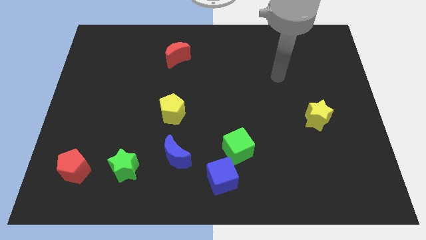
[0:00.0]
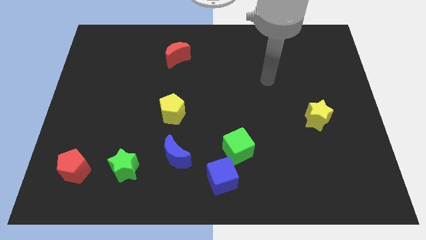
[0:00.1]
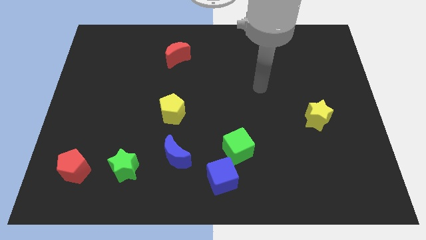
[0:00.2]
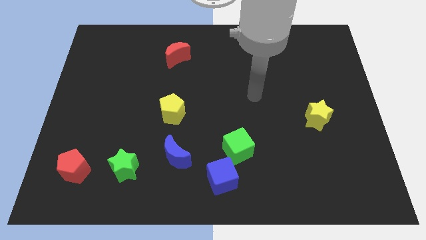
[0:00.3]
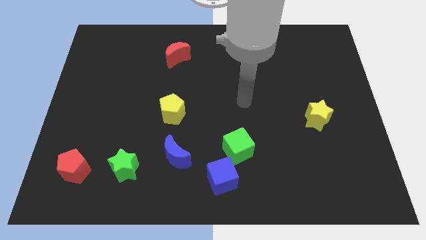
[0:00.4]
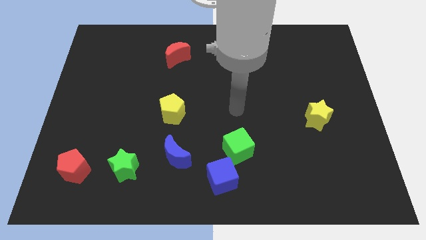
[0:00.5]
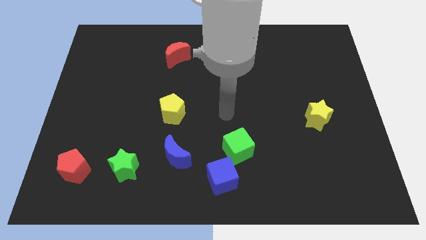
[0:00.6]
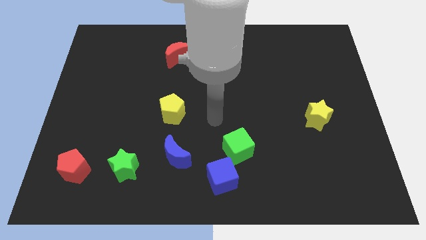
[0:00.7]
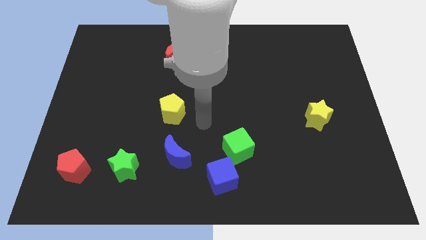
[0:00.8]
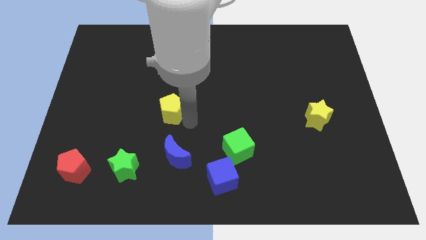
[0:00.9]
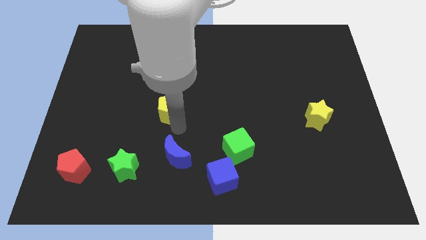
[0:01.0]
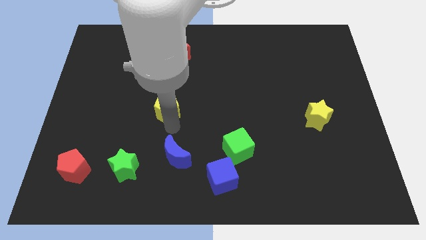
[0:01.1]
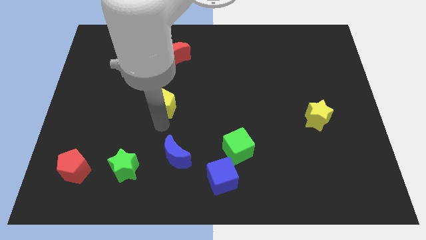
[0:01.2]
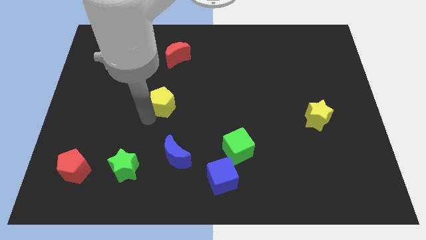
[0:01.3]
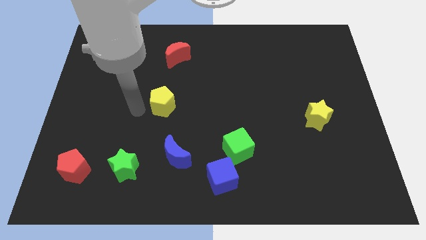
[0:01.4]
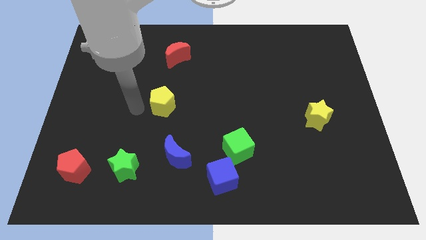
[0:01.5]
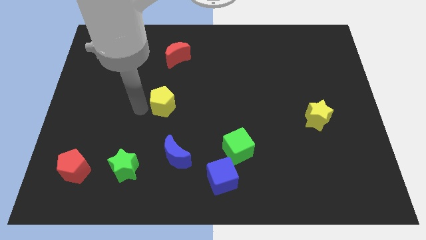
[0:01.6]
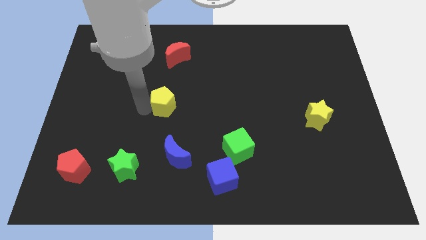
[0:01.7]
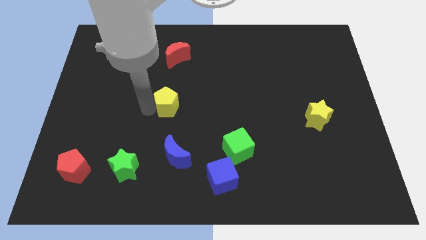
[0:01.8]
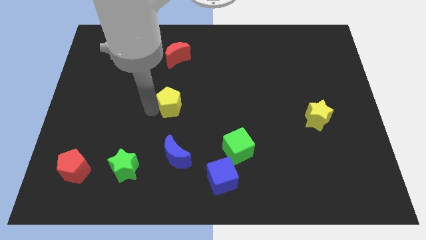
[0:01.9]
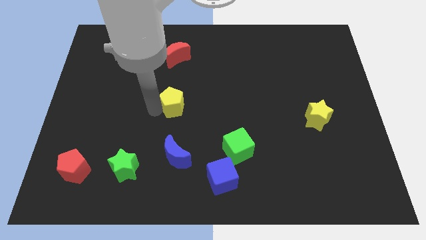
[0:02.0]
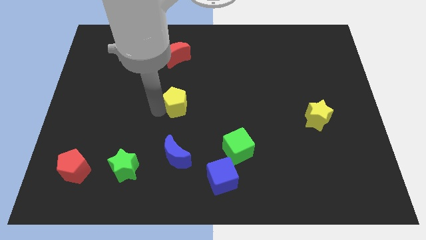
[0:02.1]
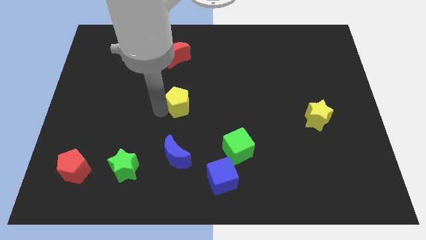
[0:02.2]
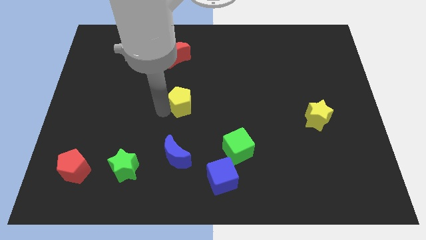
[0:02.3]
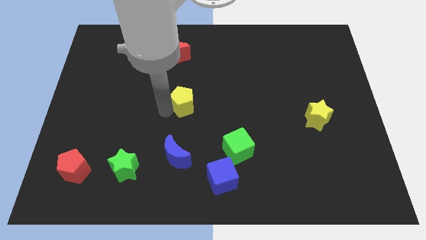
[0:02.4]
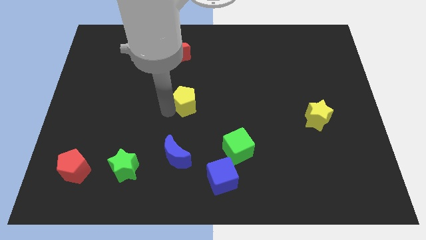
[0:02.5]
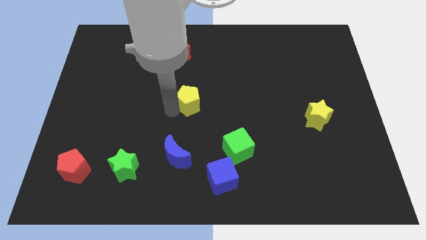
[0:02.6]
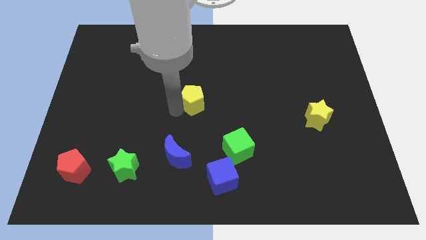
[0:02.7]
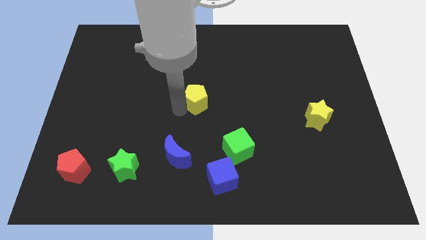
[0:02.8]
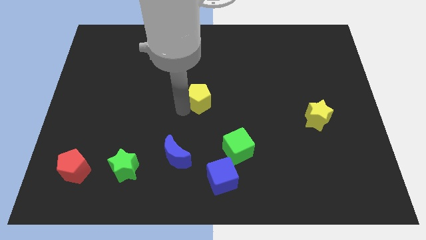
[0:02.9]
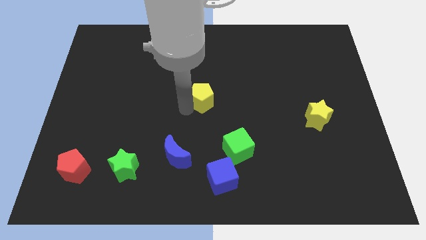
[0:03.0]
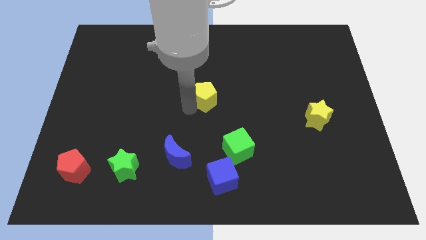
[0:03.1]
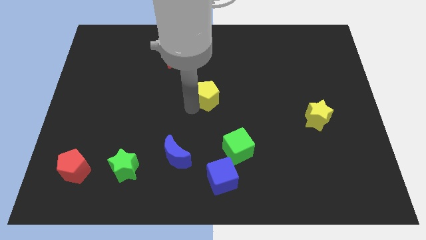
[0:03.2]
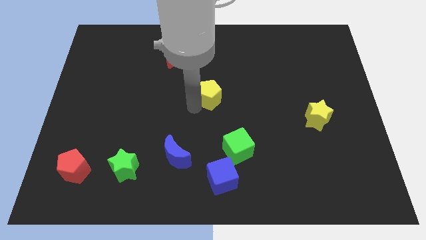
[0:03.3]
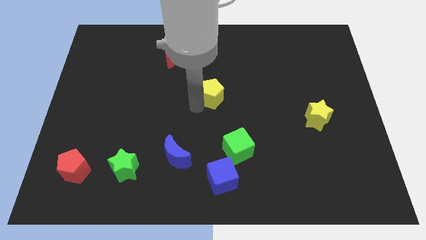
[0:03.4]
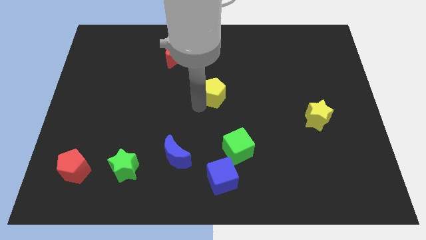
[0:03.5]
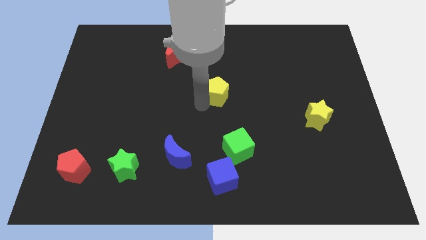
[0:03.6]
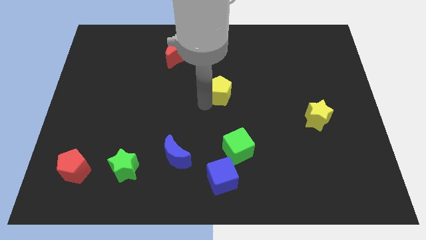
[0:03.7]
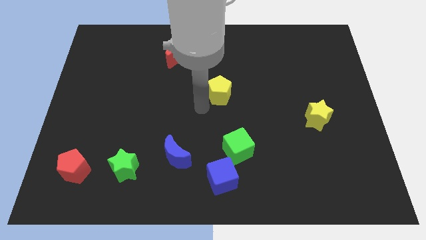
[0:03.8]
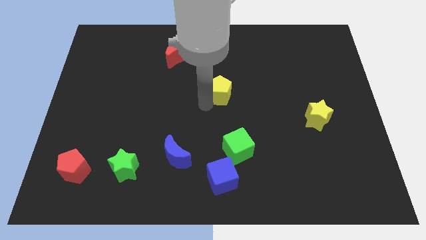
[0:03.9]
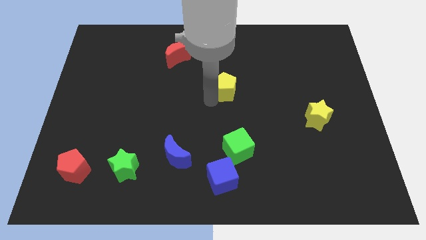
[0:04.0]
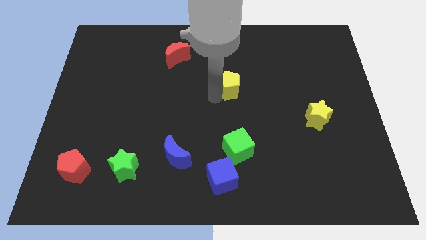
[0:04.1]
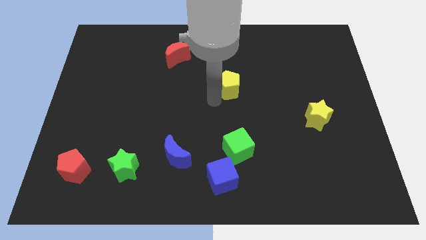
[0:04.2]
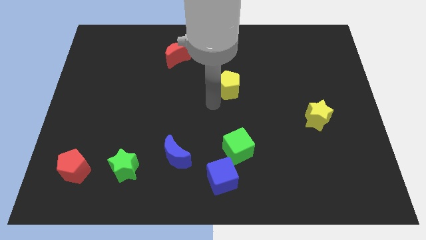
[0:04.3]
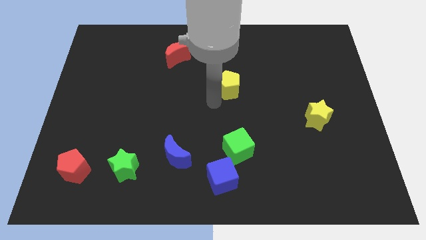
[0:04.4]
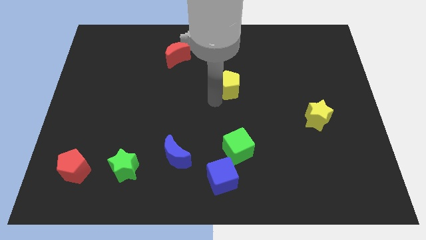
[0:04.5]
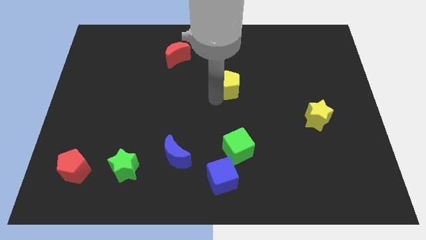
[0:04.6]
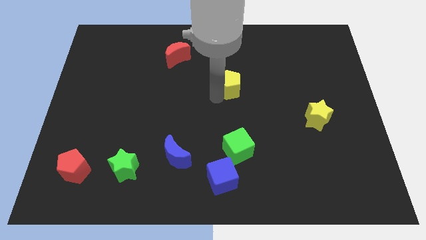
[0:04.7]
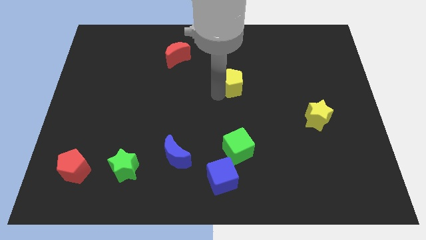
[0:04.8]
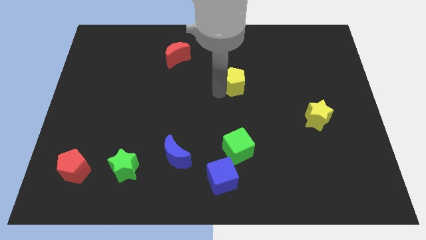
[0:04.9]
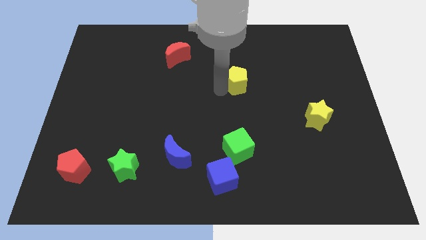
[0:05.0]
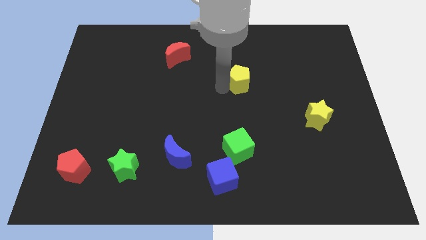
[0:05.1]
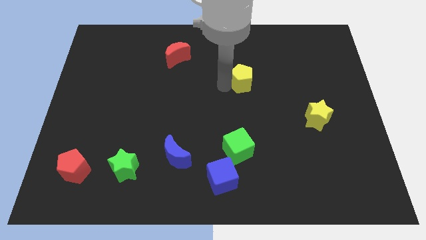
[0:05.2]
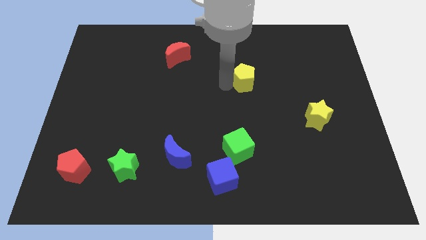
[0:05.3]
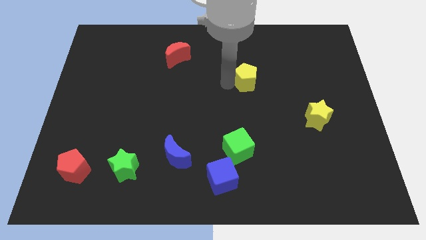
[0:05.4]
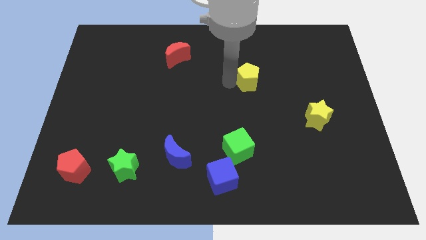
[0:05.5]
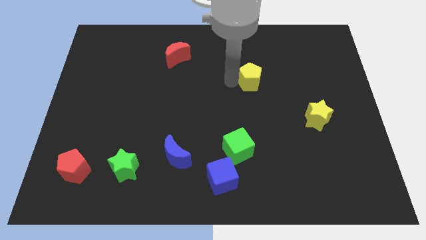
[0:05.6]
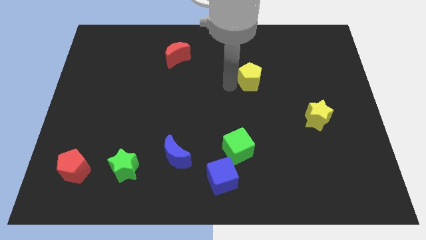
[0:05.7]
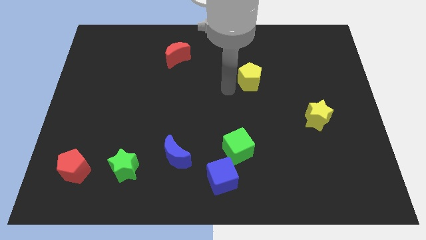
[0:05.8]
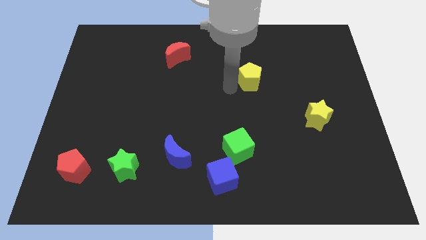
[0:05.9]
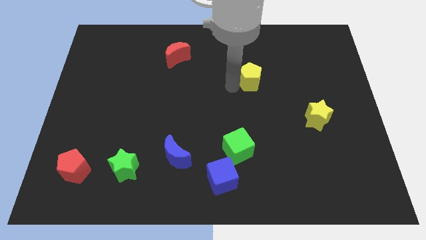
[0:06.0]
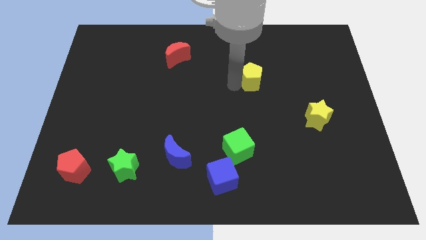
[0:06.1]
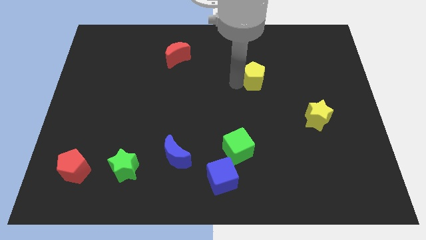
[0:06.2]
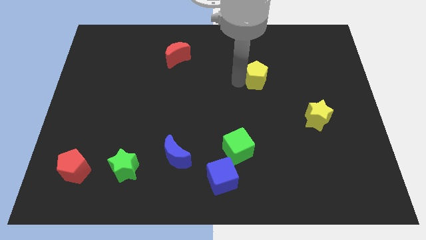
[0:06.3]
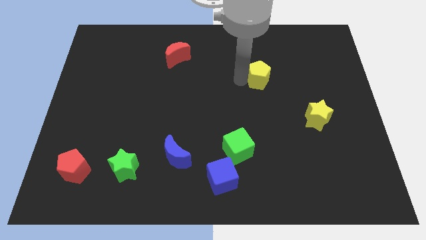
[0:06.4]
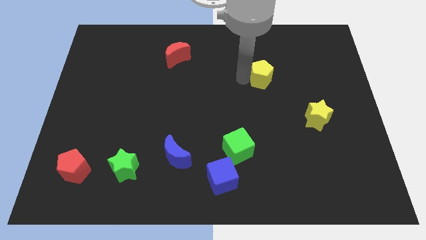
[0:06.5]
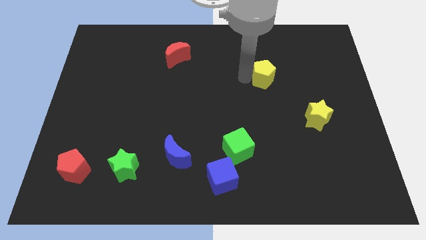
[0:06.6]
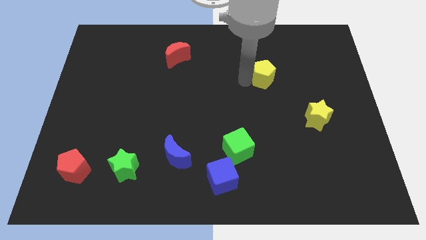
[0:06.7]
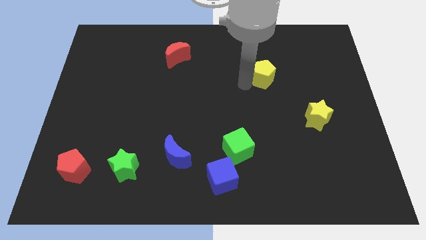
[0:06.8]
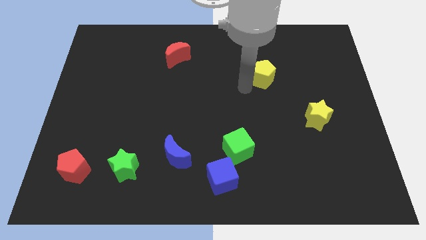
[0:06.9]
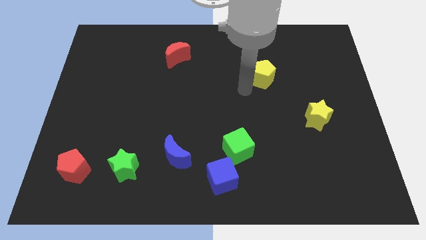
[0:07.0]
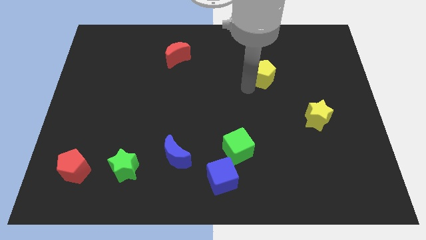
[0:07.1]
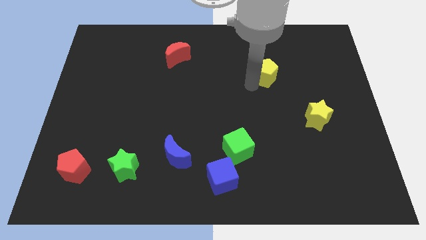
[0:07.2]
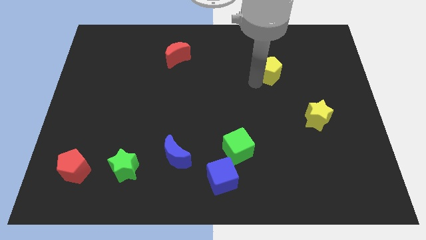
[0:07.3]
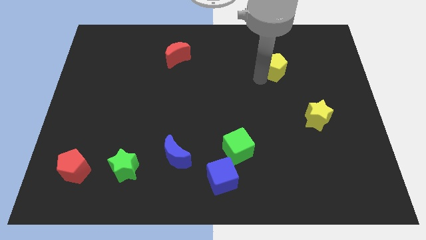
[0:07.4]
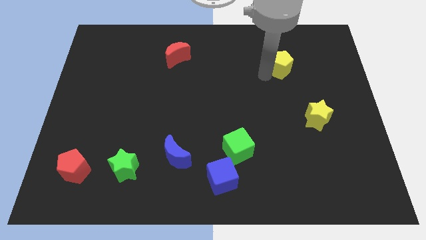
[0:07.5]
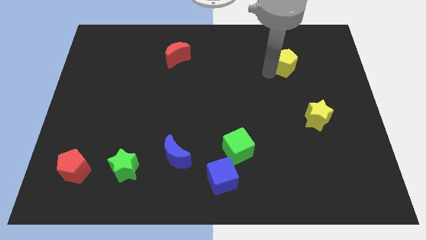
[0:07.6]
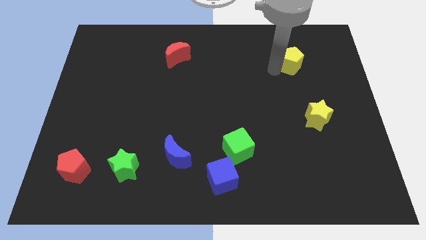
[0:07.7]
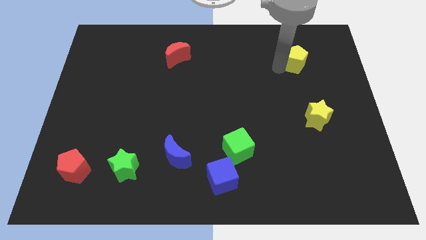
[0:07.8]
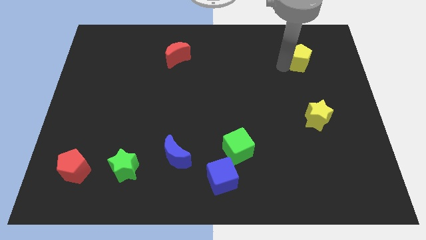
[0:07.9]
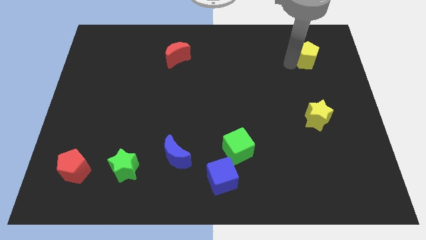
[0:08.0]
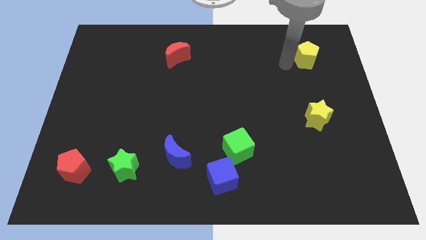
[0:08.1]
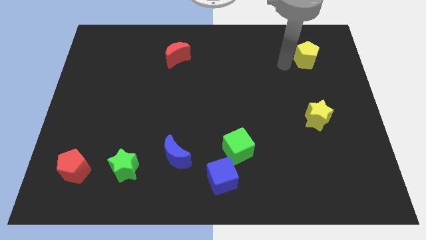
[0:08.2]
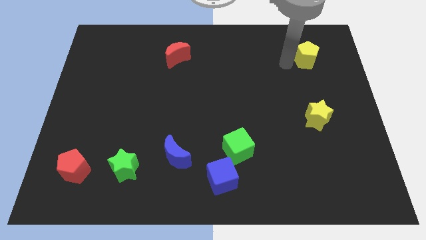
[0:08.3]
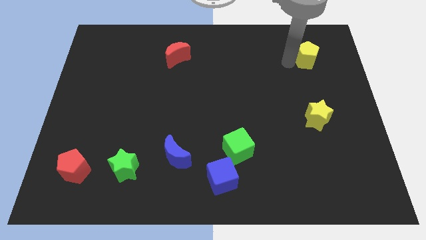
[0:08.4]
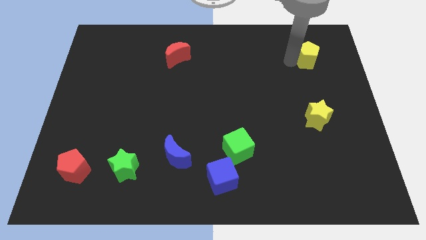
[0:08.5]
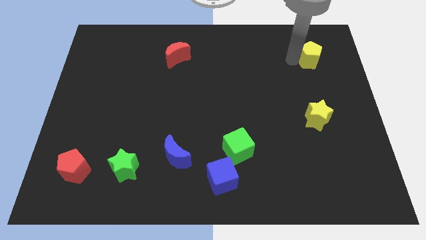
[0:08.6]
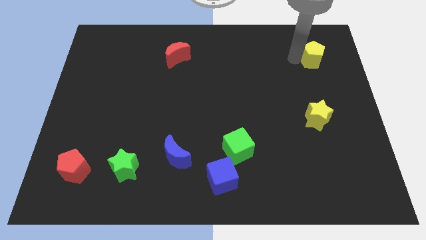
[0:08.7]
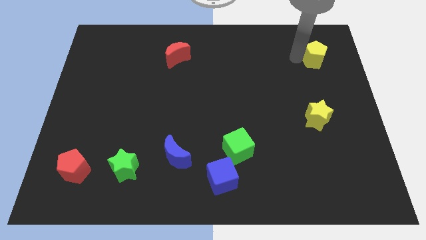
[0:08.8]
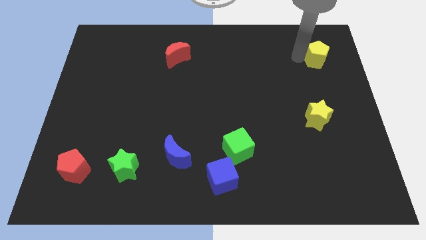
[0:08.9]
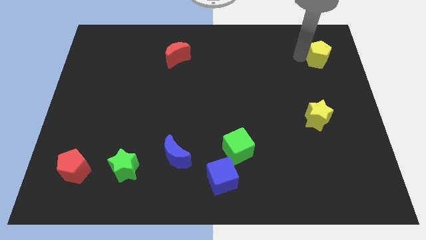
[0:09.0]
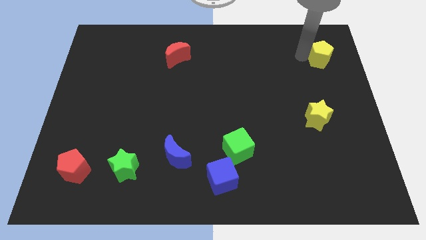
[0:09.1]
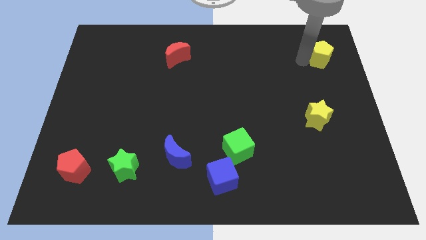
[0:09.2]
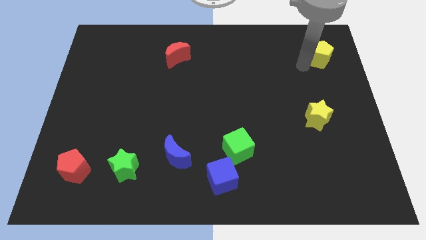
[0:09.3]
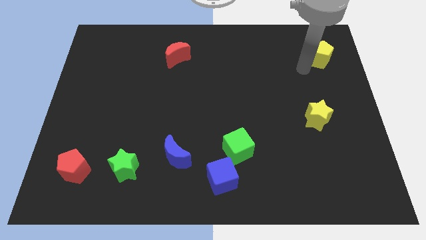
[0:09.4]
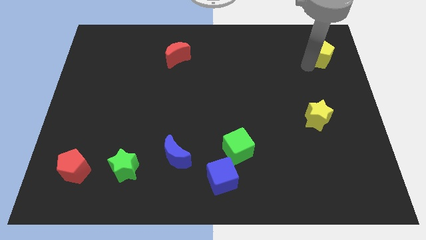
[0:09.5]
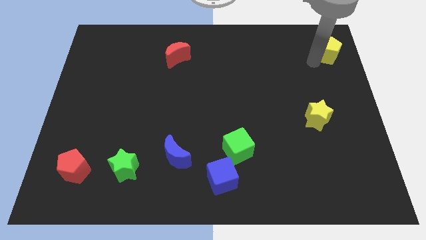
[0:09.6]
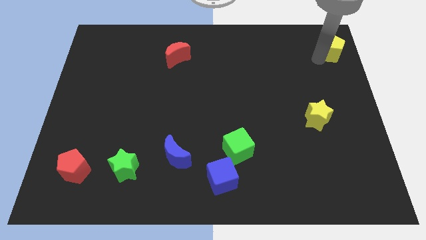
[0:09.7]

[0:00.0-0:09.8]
put the yellow pentagon to the top right of the board
